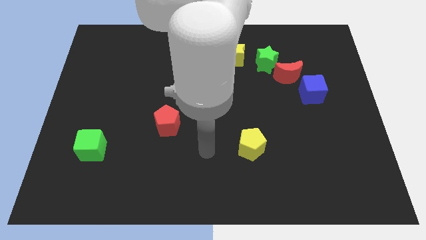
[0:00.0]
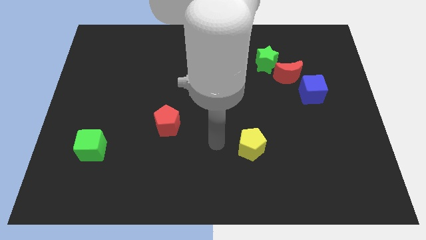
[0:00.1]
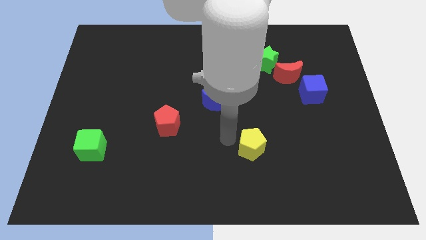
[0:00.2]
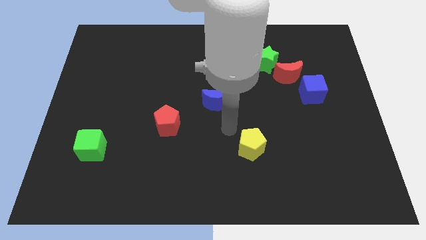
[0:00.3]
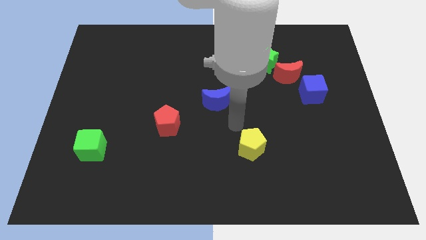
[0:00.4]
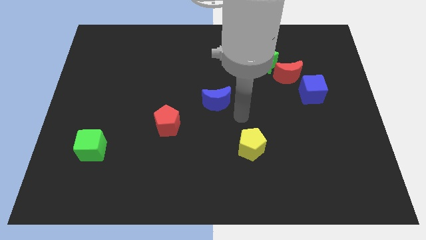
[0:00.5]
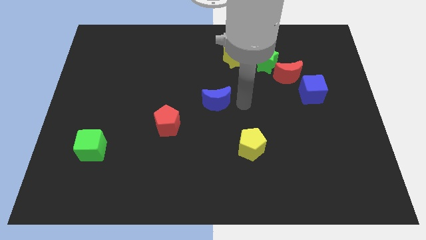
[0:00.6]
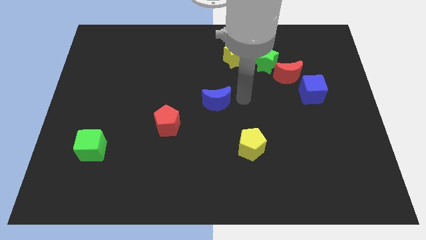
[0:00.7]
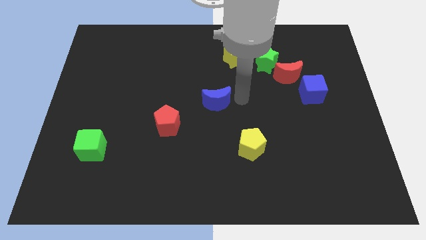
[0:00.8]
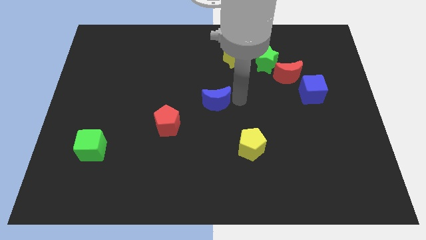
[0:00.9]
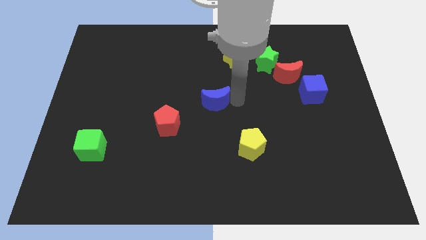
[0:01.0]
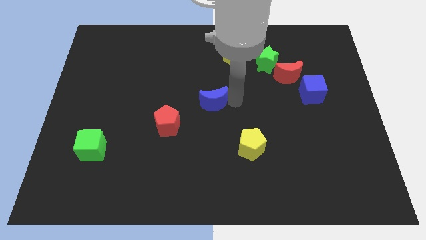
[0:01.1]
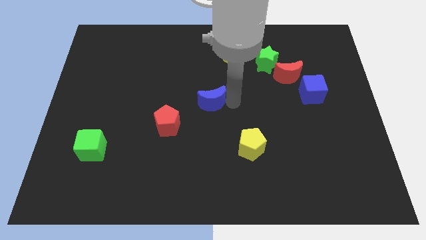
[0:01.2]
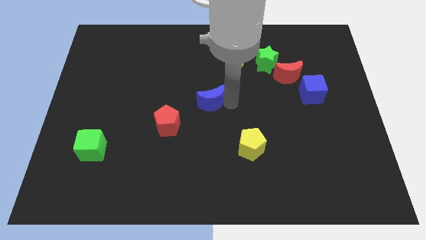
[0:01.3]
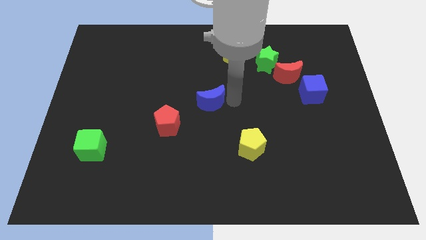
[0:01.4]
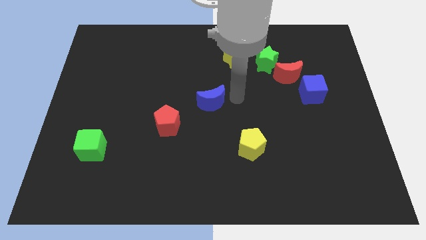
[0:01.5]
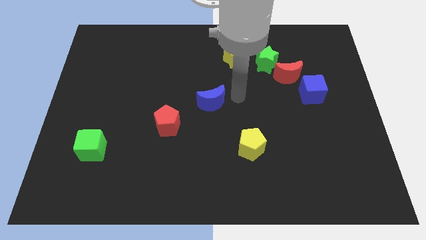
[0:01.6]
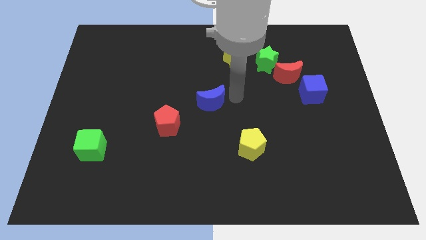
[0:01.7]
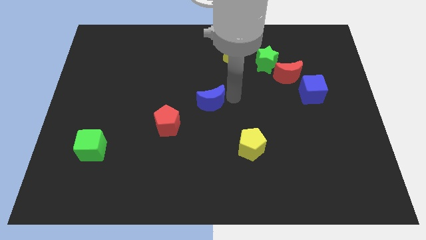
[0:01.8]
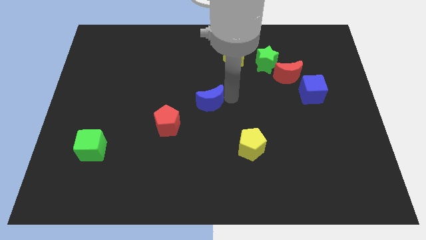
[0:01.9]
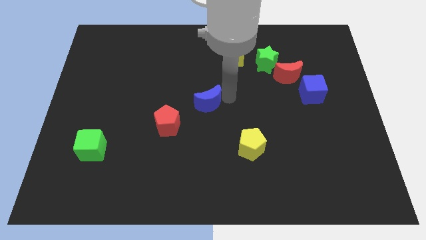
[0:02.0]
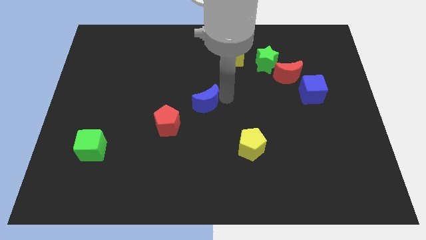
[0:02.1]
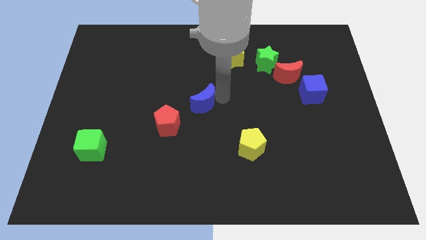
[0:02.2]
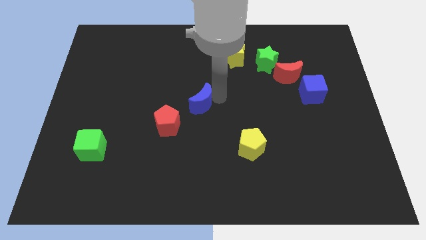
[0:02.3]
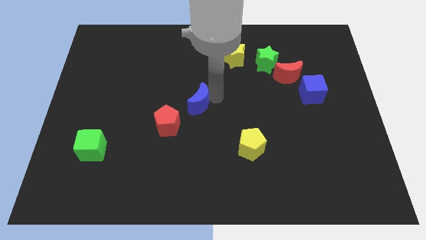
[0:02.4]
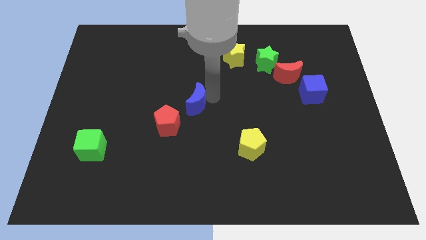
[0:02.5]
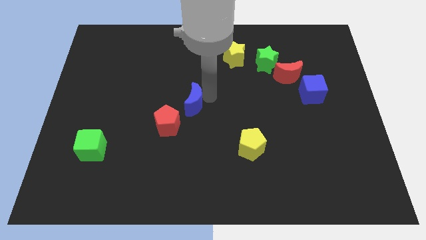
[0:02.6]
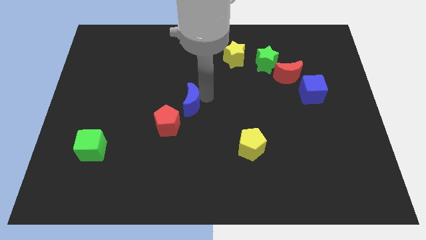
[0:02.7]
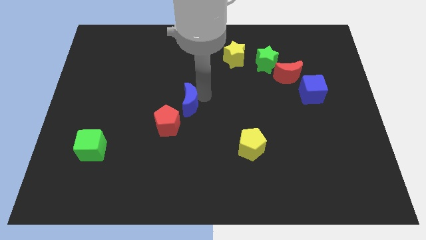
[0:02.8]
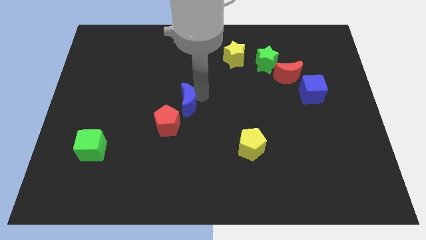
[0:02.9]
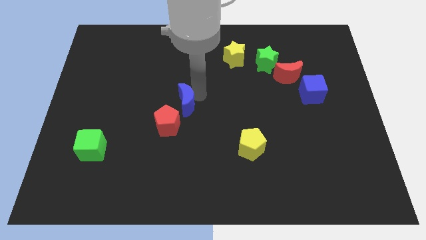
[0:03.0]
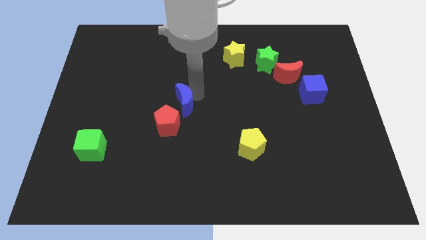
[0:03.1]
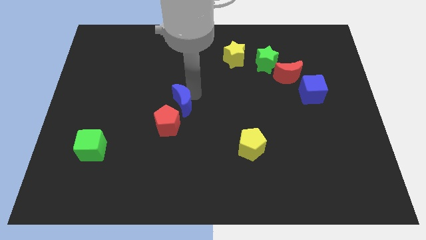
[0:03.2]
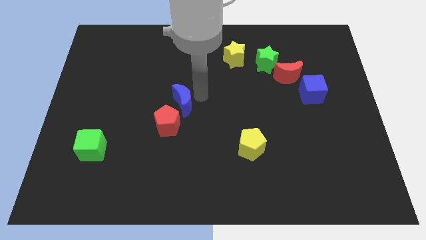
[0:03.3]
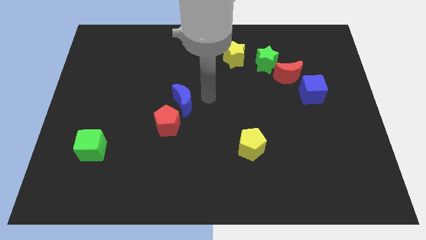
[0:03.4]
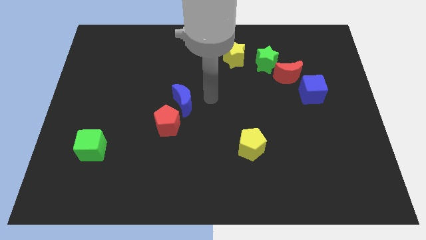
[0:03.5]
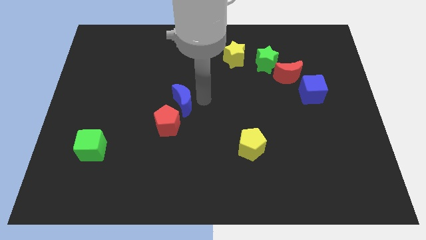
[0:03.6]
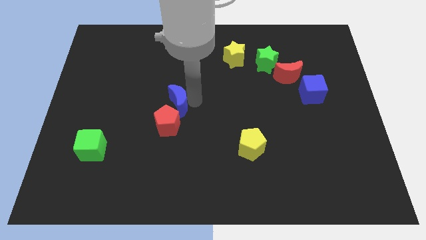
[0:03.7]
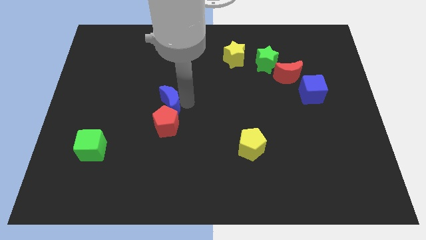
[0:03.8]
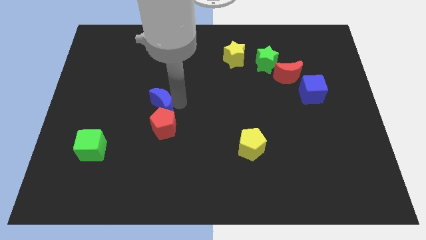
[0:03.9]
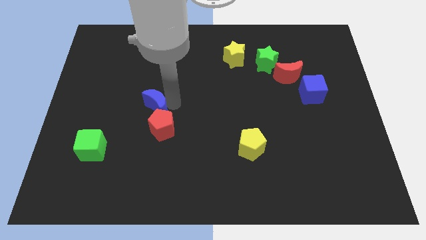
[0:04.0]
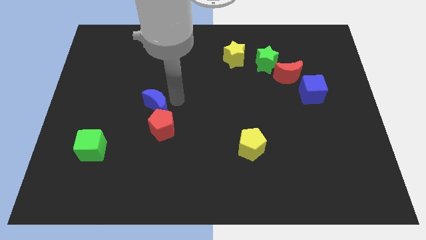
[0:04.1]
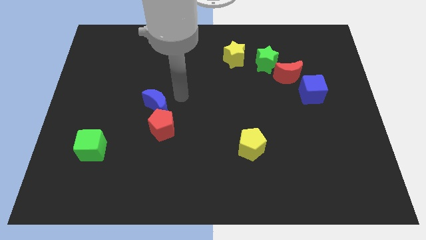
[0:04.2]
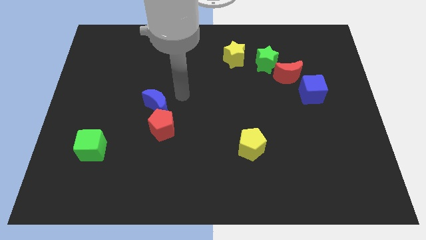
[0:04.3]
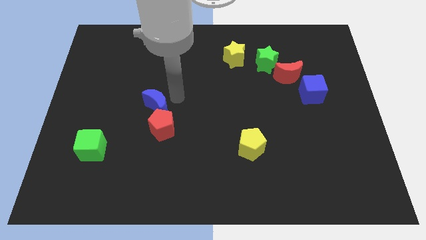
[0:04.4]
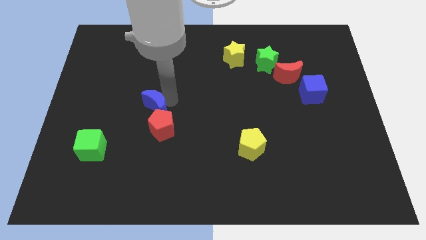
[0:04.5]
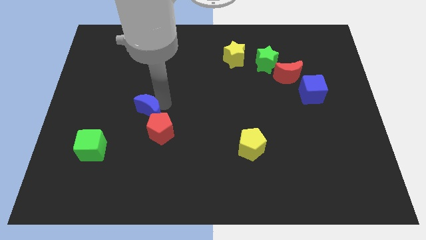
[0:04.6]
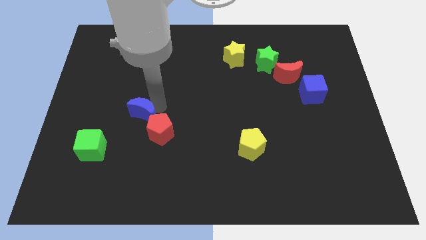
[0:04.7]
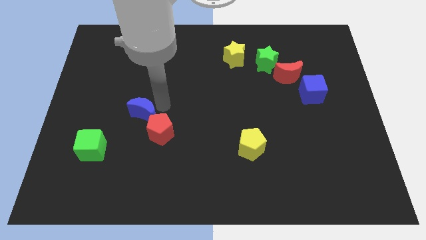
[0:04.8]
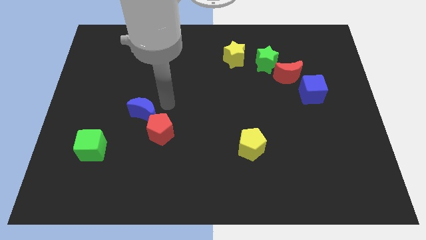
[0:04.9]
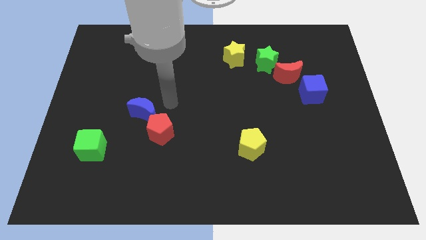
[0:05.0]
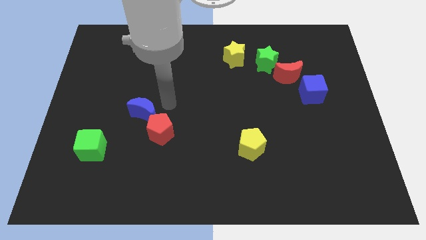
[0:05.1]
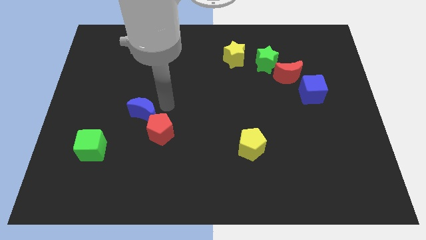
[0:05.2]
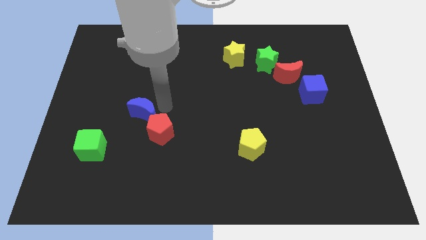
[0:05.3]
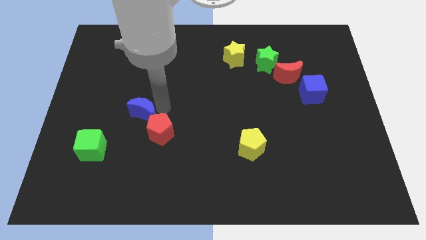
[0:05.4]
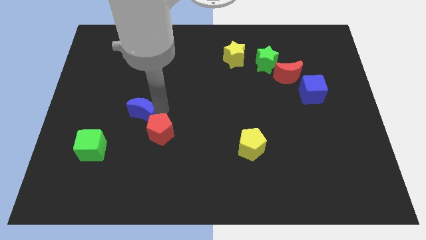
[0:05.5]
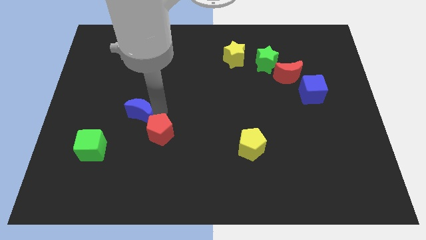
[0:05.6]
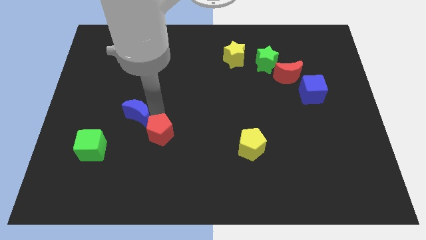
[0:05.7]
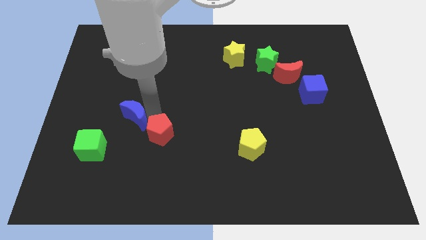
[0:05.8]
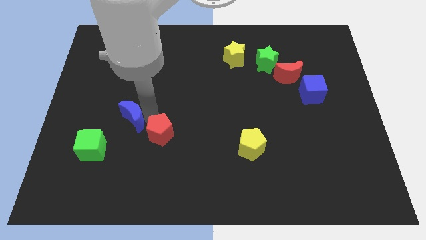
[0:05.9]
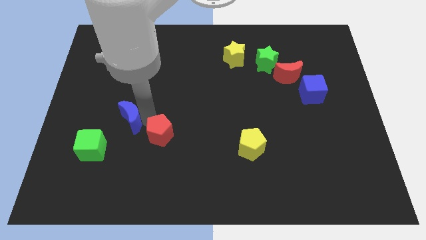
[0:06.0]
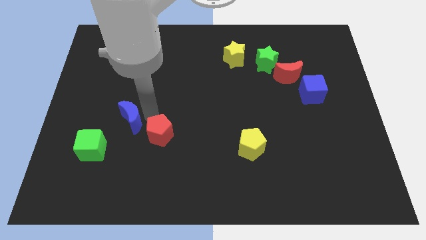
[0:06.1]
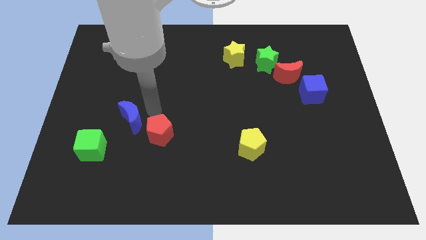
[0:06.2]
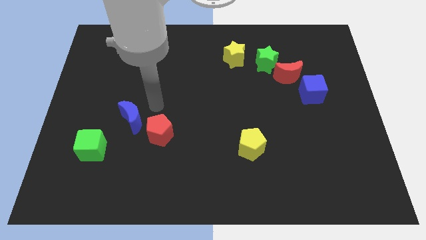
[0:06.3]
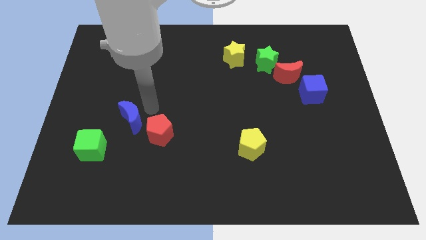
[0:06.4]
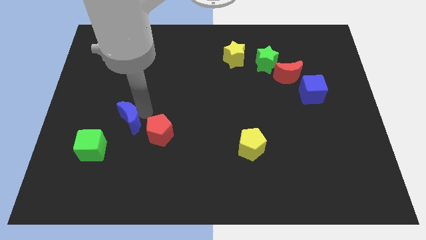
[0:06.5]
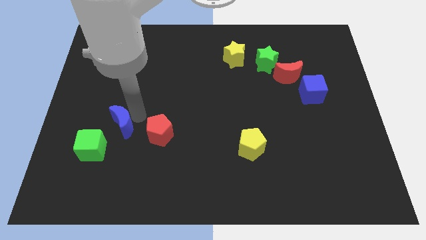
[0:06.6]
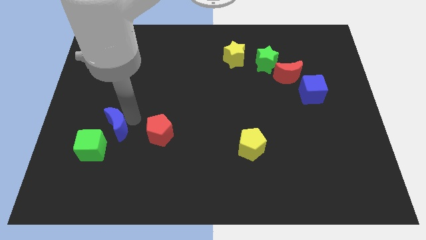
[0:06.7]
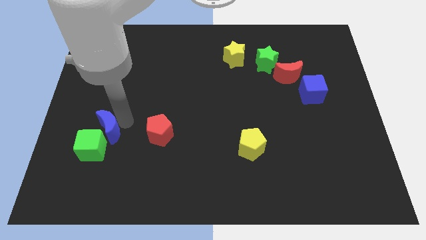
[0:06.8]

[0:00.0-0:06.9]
push the blue moon close to the green cube
